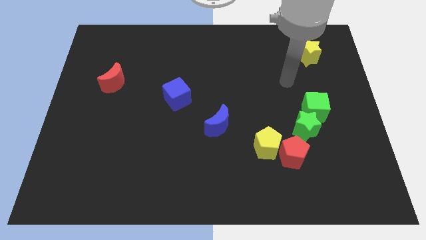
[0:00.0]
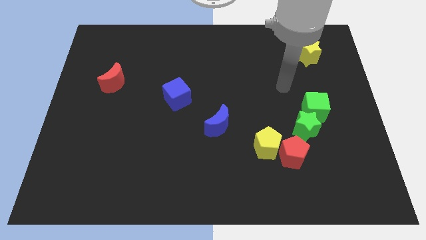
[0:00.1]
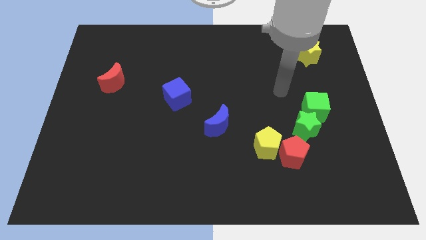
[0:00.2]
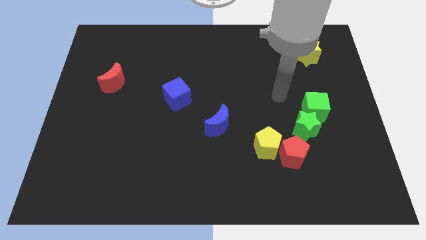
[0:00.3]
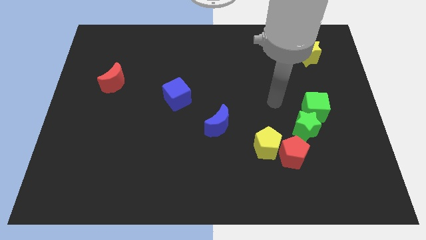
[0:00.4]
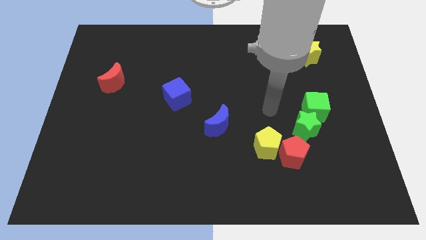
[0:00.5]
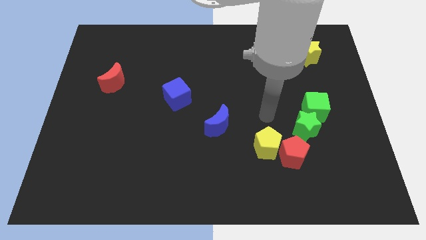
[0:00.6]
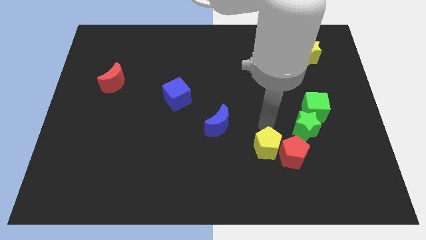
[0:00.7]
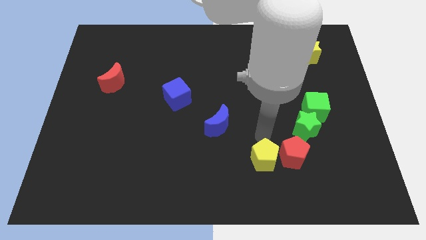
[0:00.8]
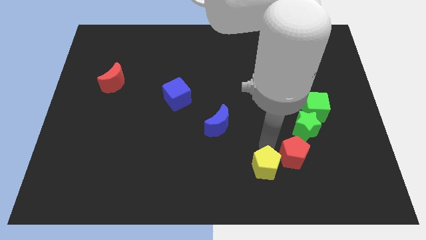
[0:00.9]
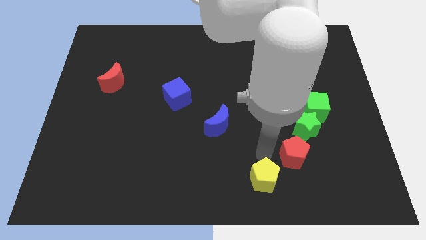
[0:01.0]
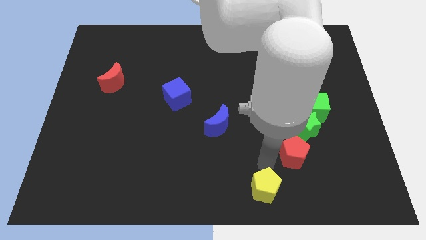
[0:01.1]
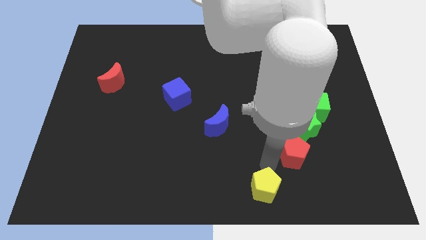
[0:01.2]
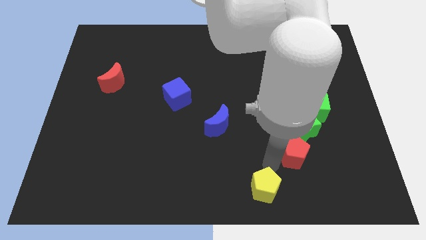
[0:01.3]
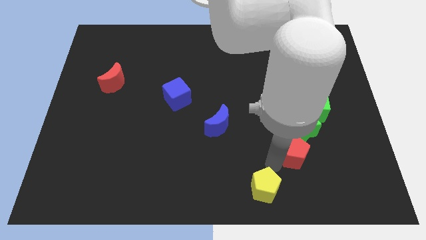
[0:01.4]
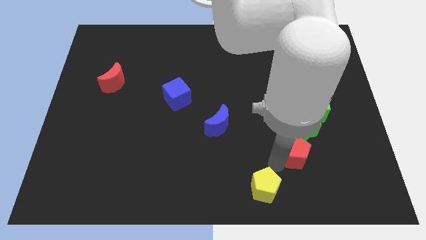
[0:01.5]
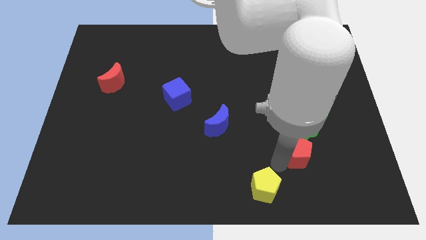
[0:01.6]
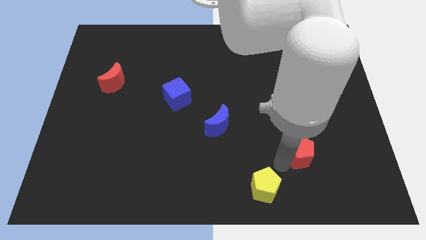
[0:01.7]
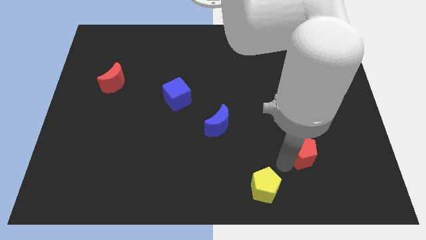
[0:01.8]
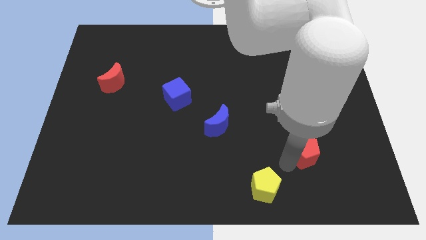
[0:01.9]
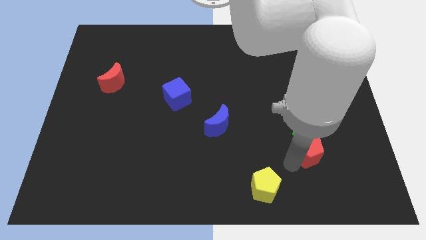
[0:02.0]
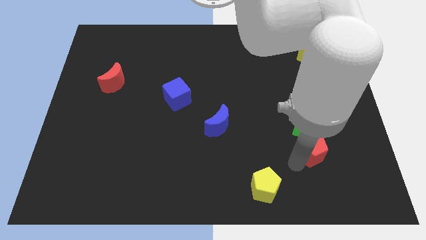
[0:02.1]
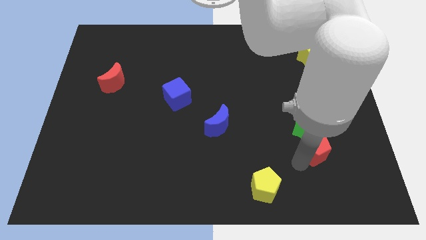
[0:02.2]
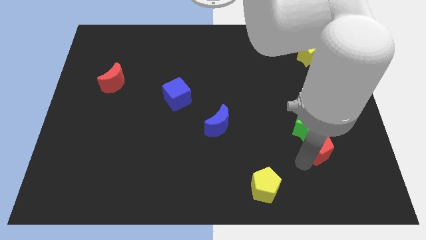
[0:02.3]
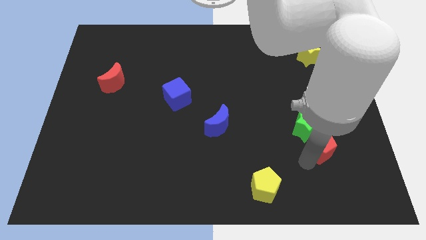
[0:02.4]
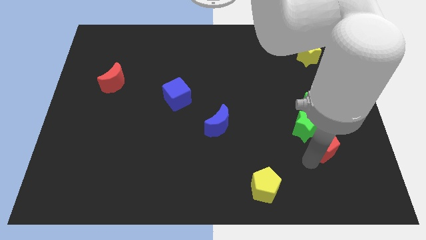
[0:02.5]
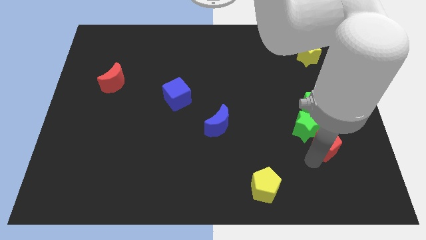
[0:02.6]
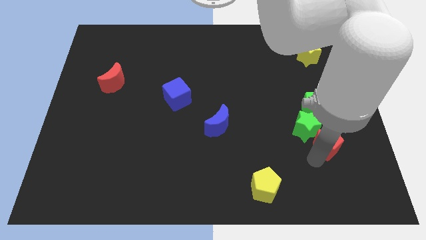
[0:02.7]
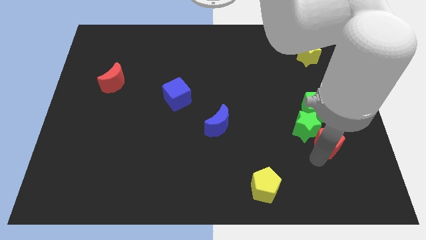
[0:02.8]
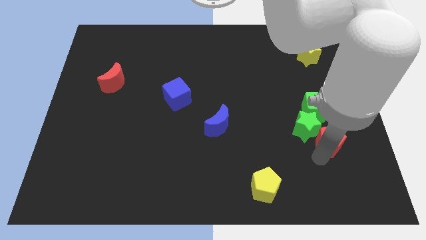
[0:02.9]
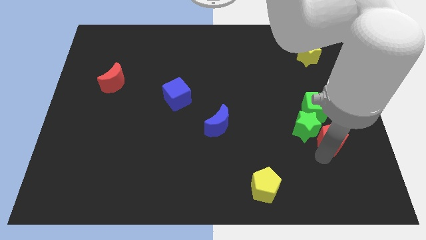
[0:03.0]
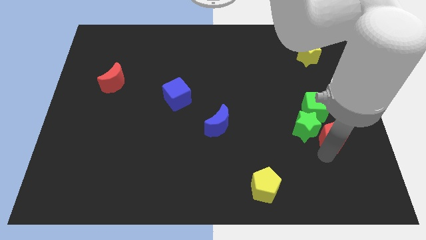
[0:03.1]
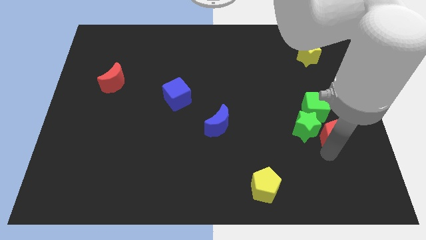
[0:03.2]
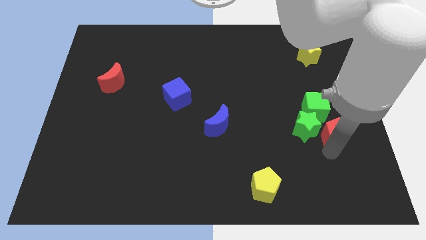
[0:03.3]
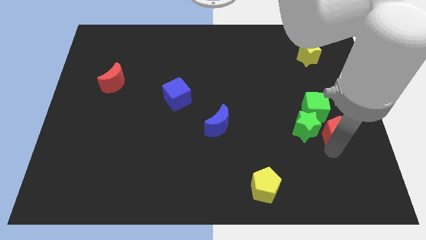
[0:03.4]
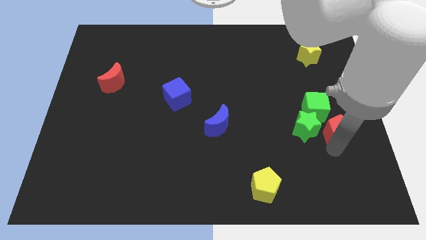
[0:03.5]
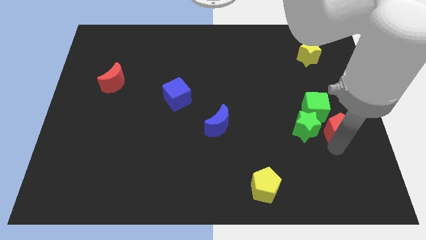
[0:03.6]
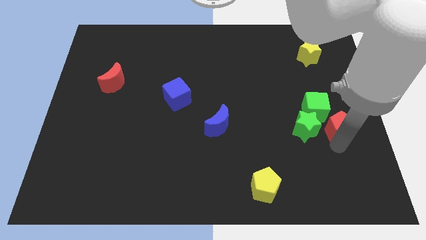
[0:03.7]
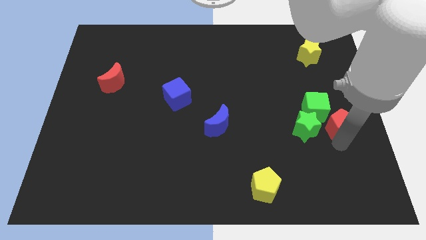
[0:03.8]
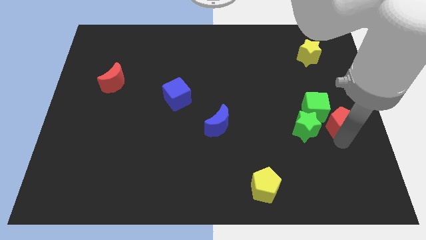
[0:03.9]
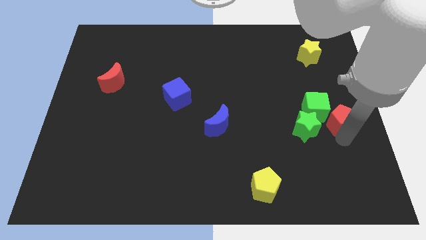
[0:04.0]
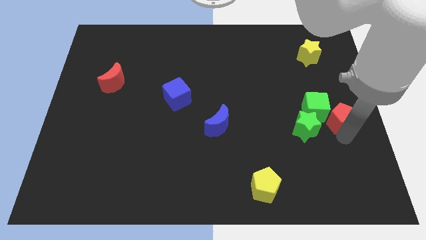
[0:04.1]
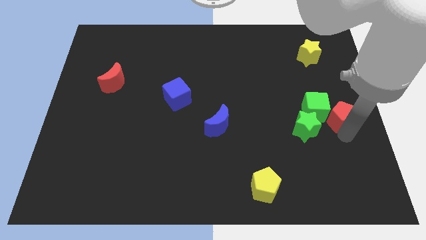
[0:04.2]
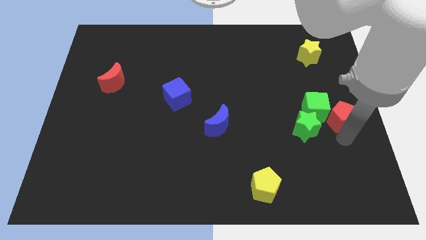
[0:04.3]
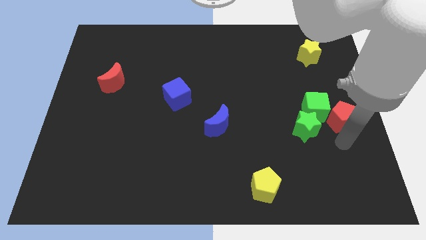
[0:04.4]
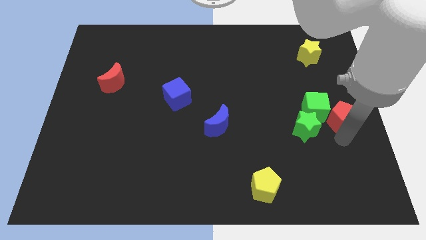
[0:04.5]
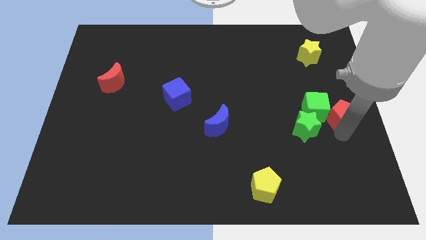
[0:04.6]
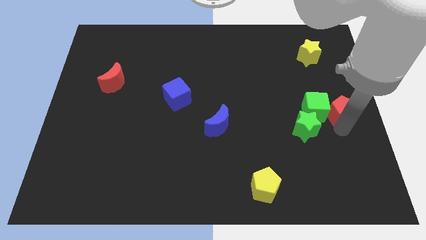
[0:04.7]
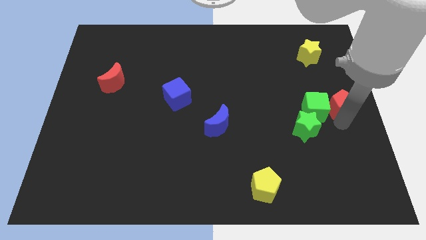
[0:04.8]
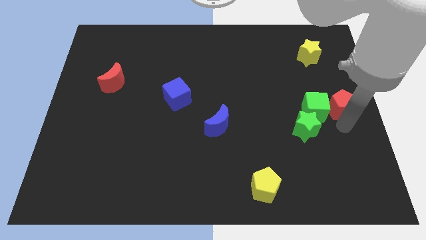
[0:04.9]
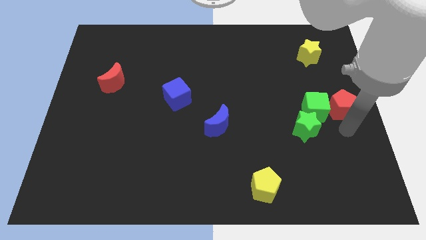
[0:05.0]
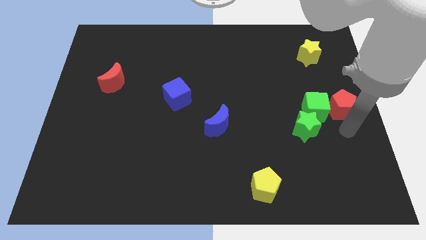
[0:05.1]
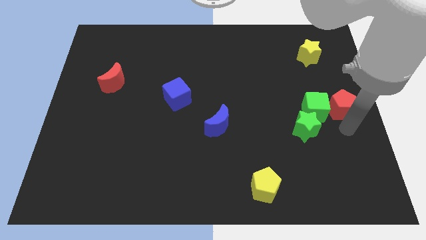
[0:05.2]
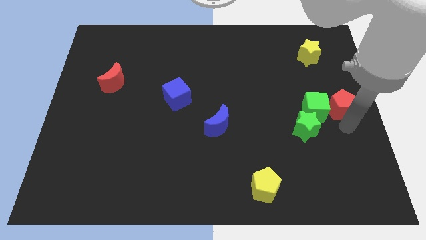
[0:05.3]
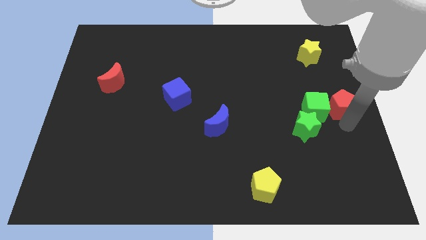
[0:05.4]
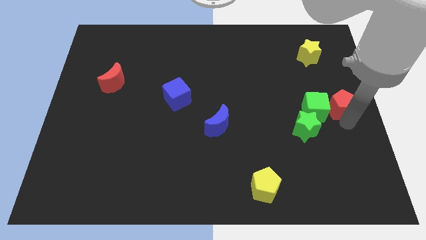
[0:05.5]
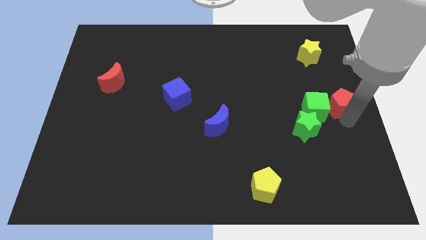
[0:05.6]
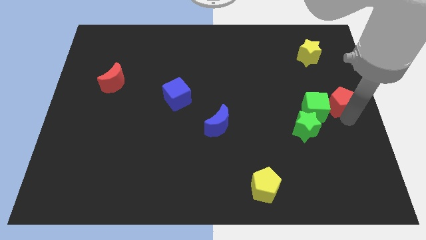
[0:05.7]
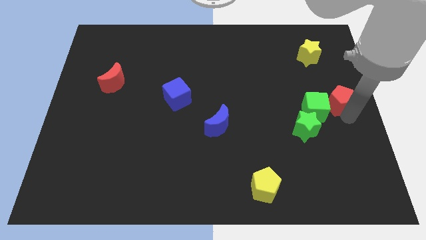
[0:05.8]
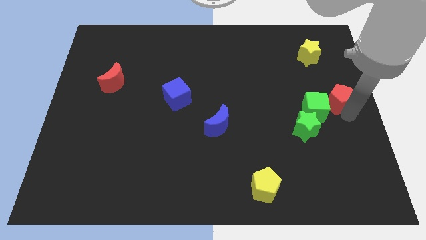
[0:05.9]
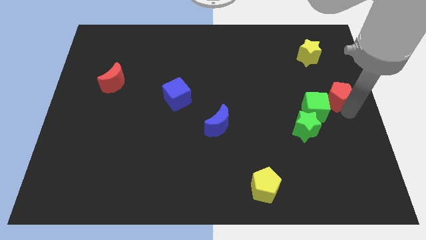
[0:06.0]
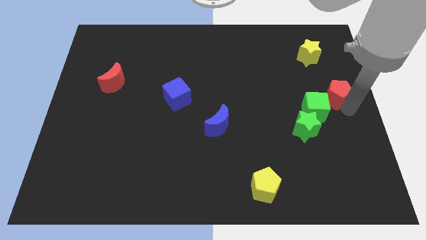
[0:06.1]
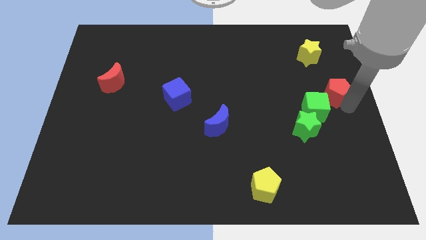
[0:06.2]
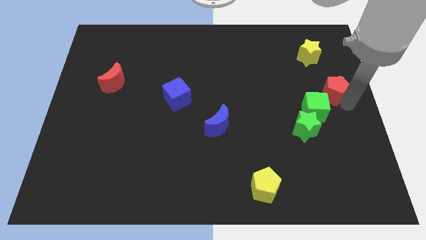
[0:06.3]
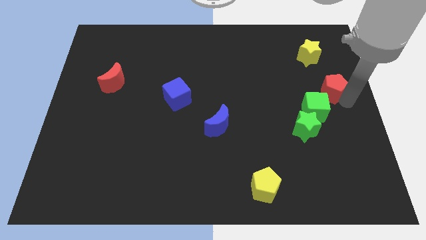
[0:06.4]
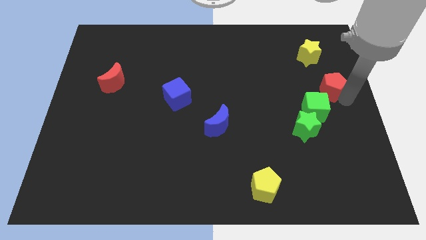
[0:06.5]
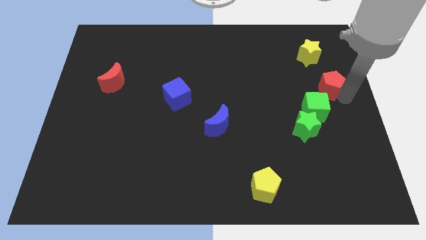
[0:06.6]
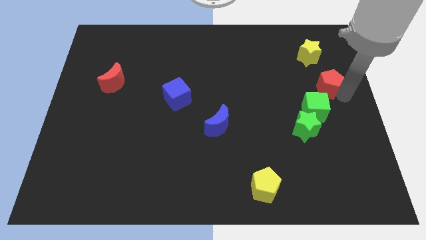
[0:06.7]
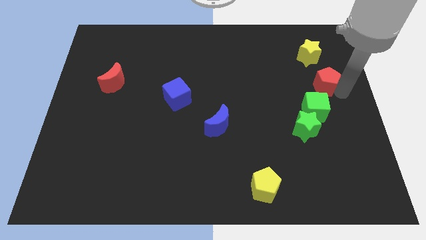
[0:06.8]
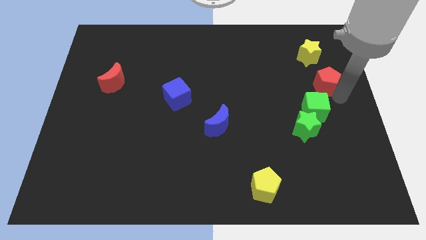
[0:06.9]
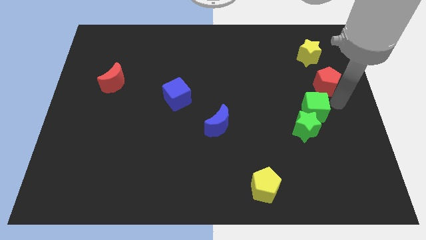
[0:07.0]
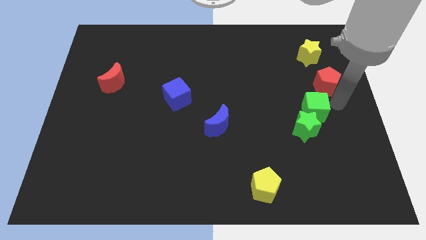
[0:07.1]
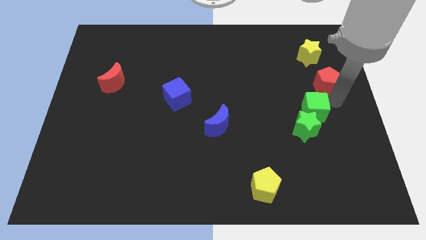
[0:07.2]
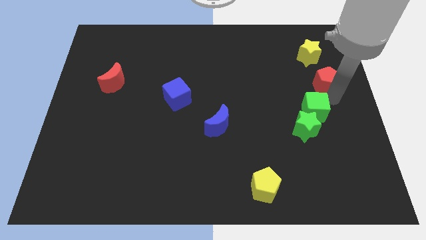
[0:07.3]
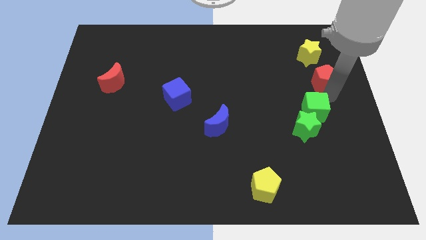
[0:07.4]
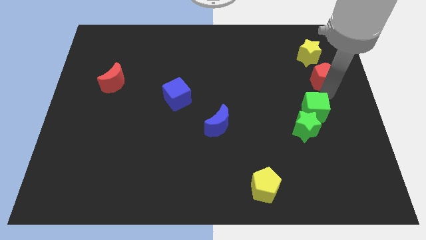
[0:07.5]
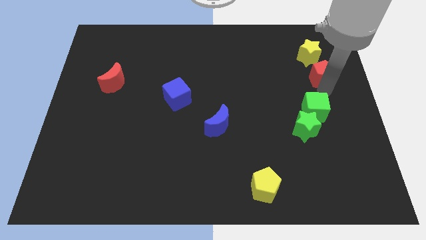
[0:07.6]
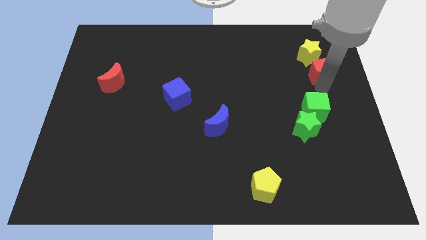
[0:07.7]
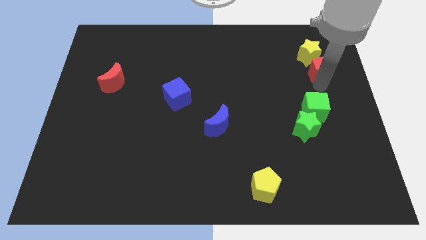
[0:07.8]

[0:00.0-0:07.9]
slide the red pentagon to the yellow star
